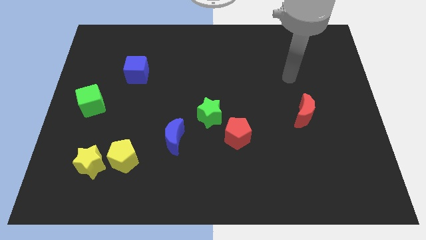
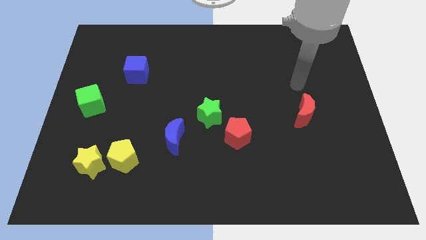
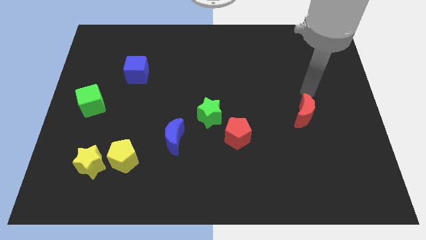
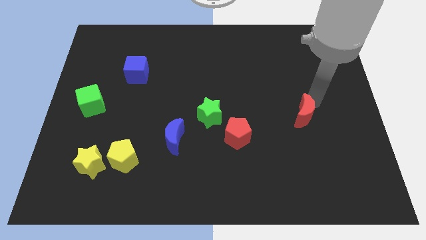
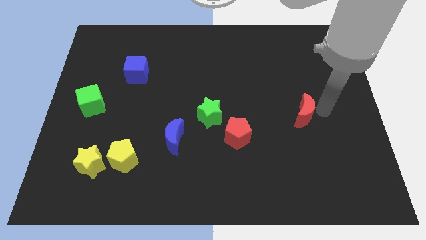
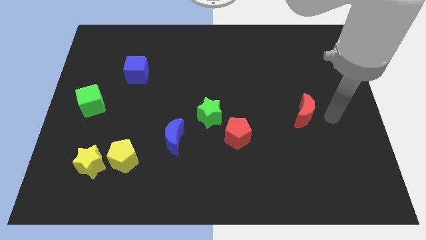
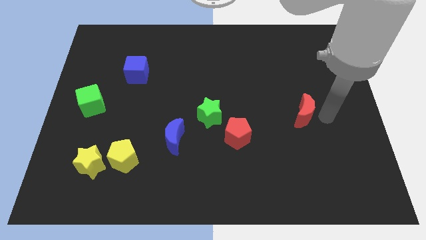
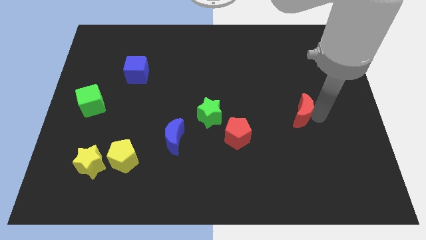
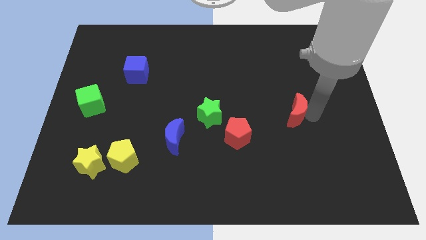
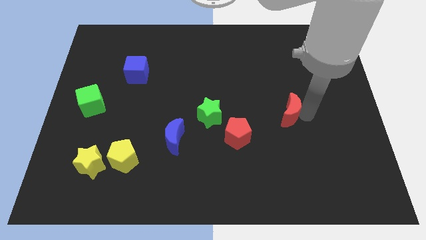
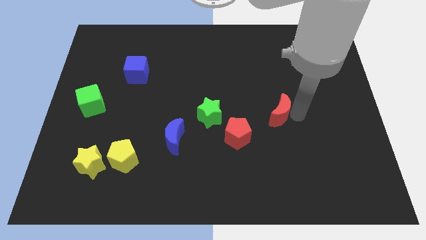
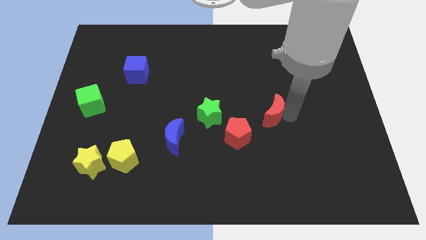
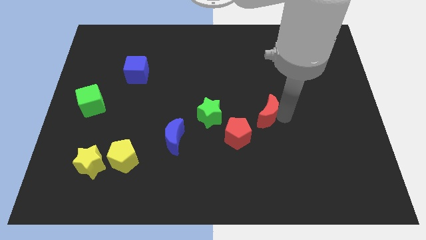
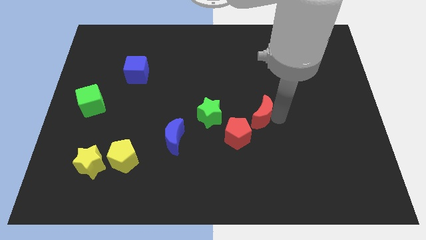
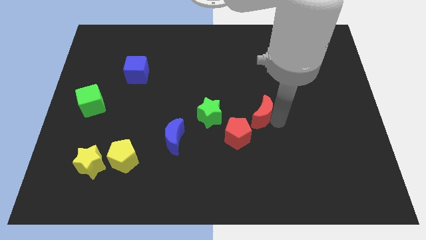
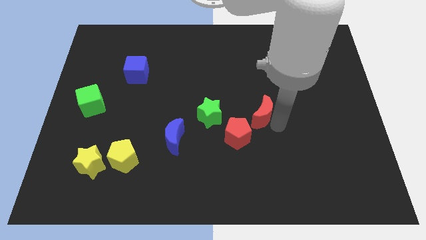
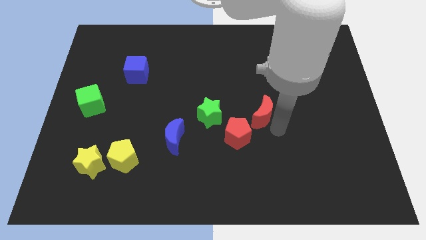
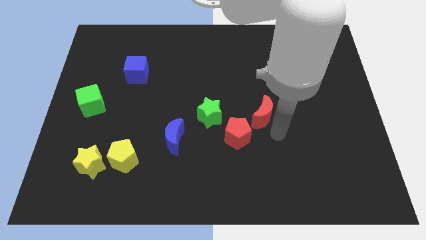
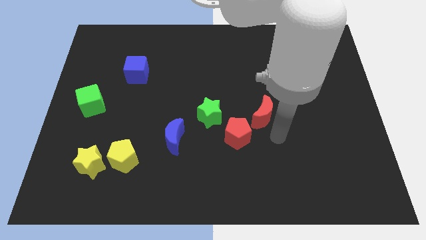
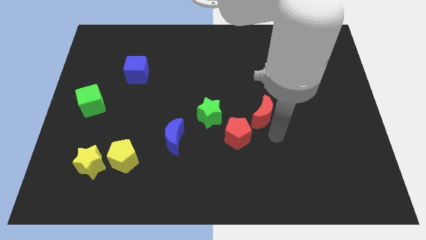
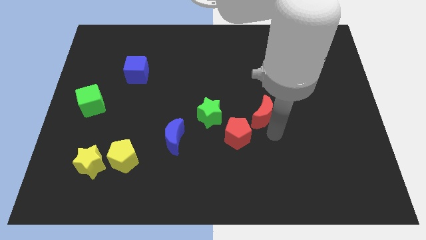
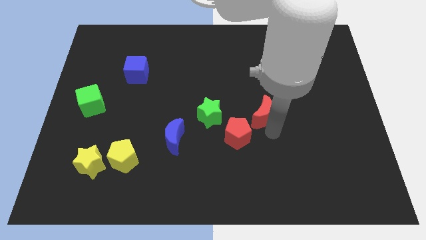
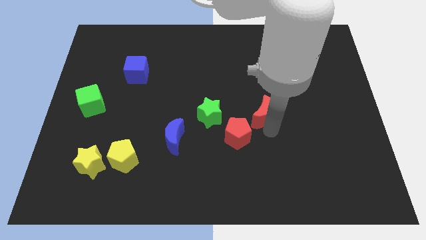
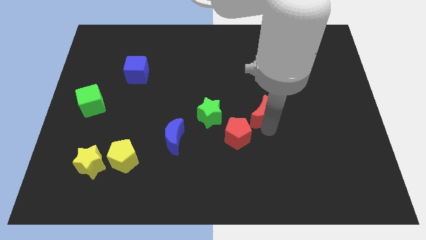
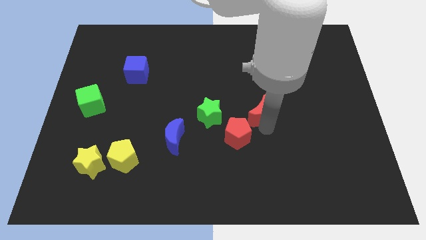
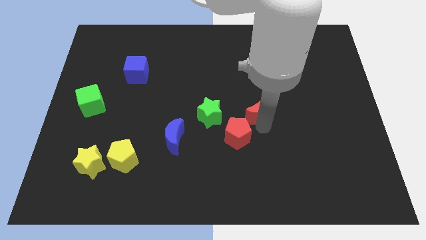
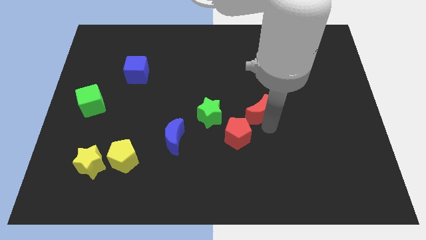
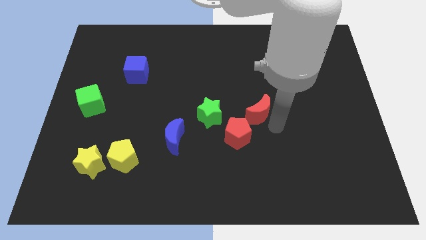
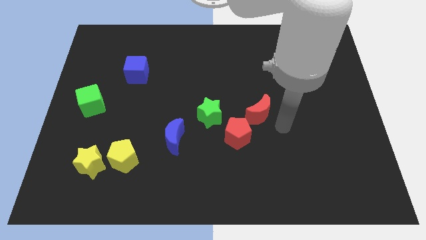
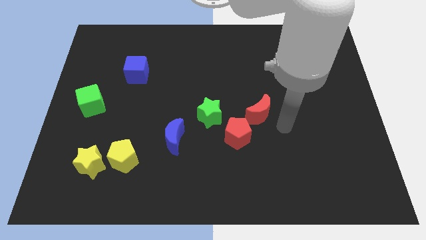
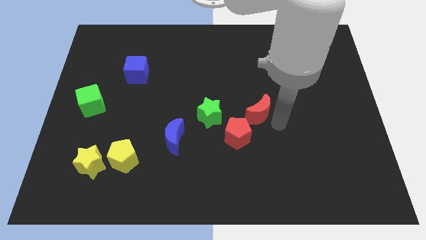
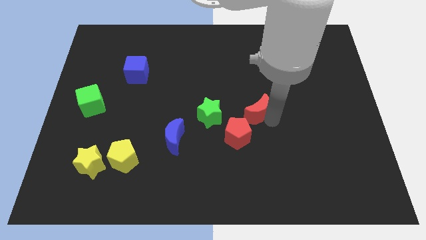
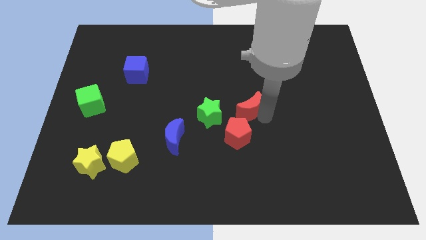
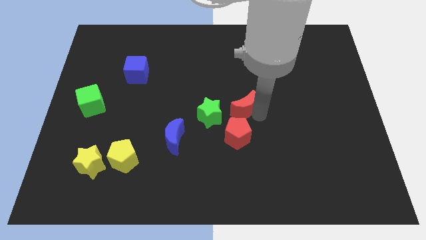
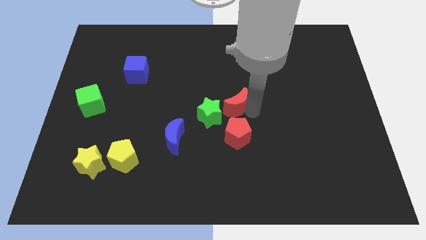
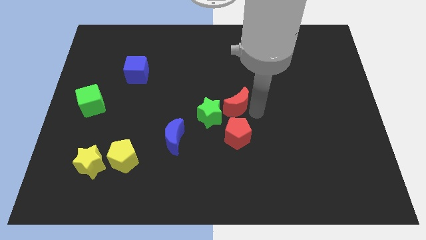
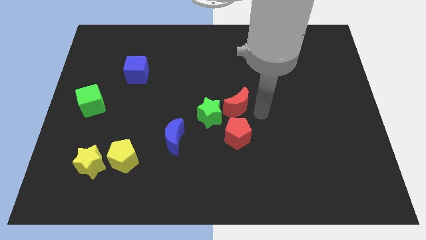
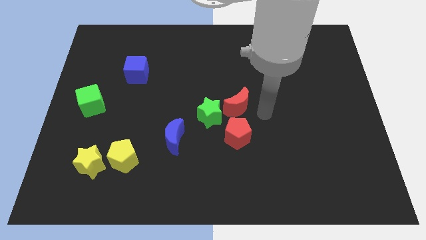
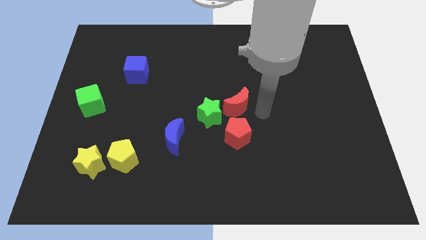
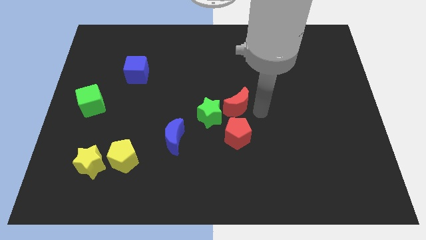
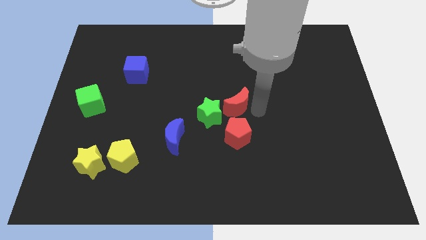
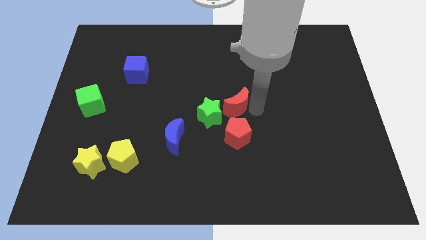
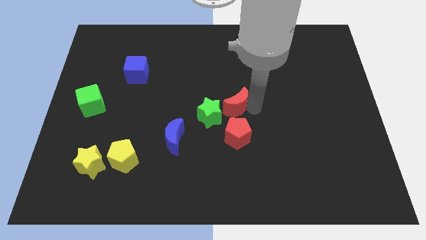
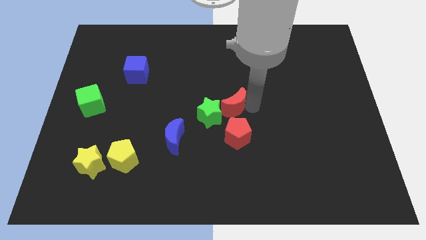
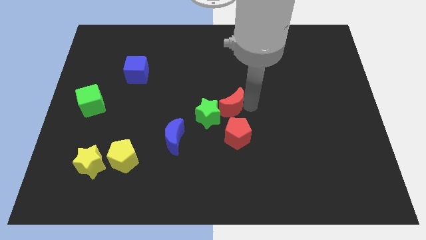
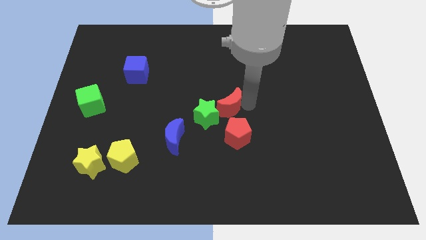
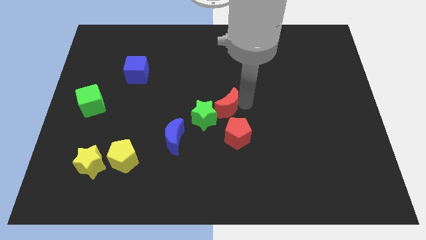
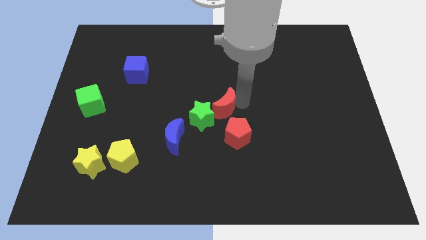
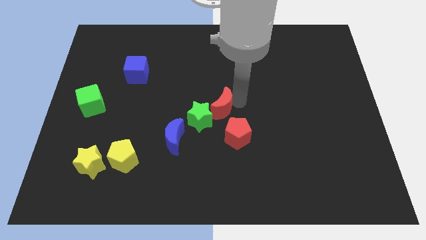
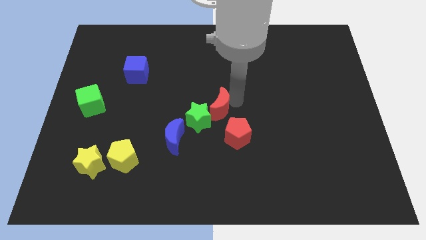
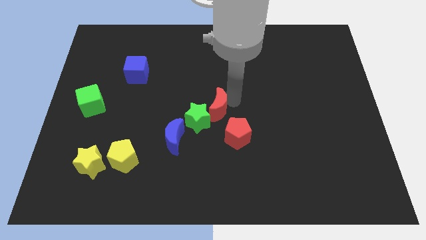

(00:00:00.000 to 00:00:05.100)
move the red moon to the left

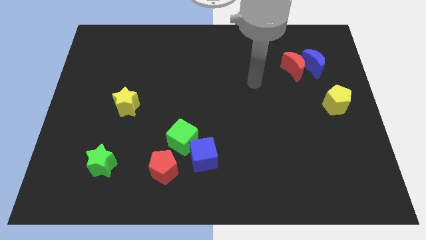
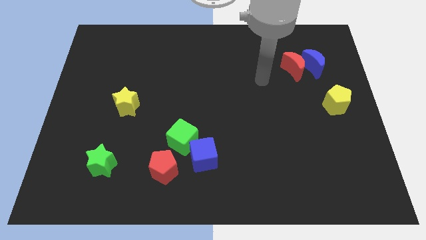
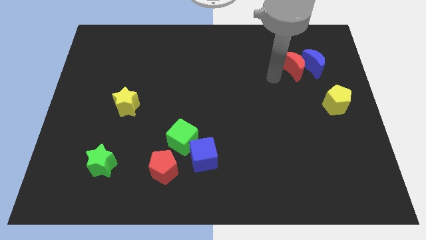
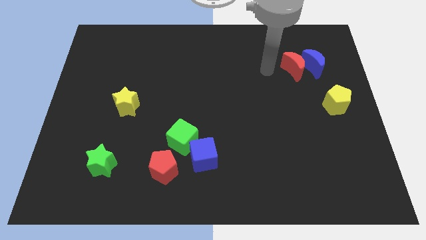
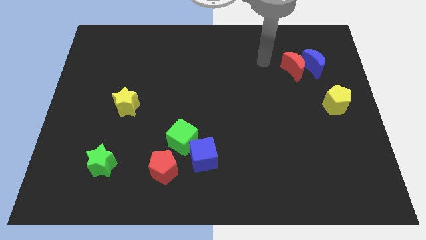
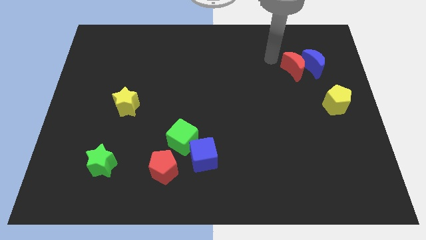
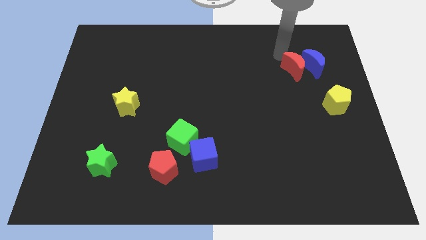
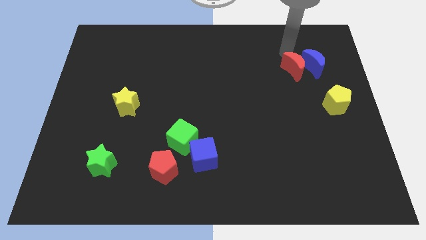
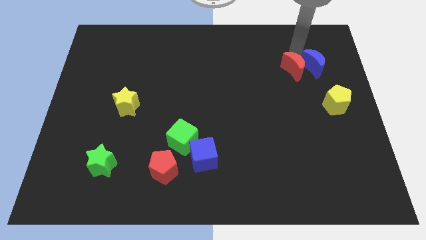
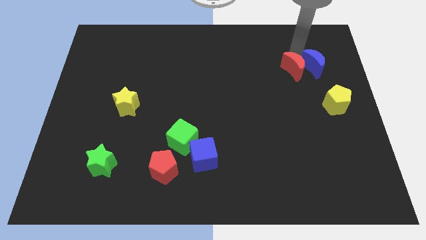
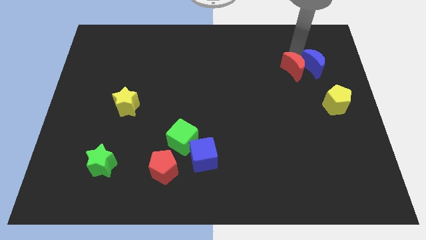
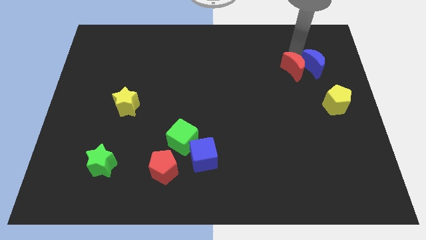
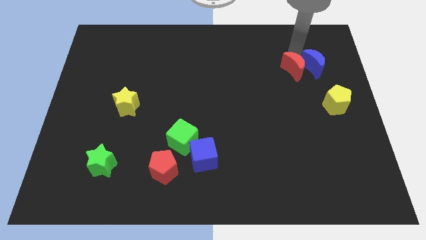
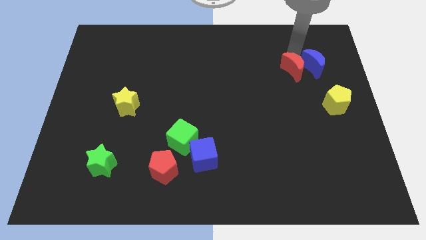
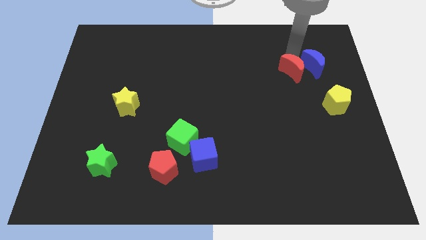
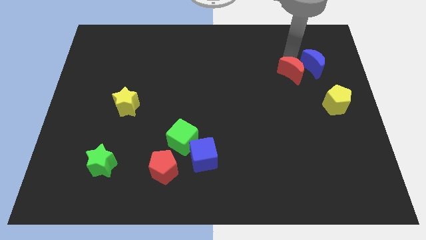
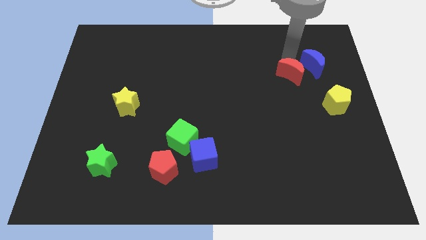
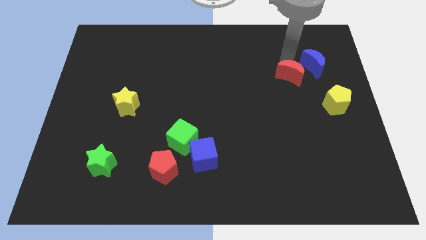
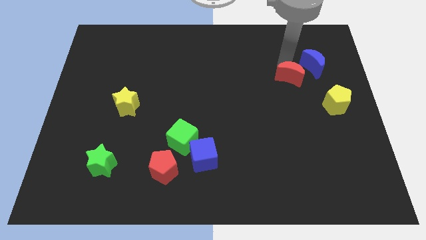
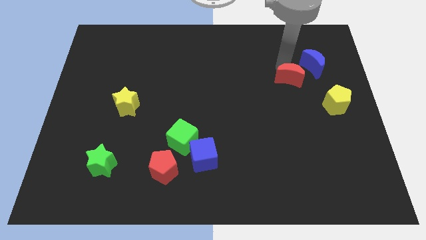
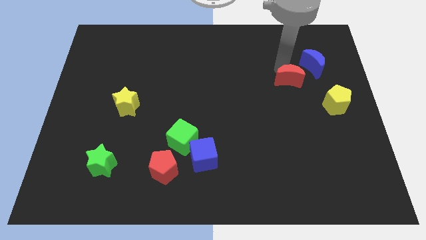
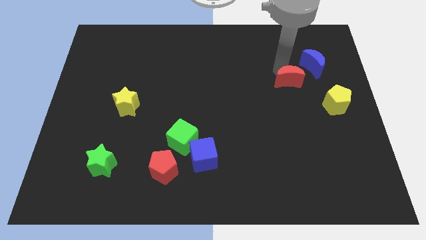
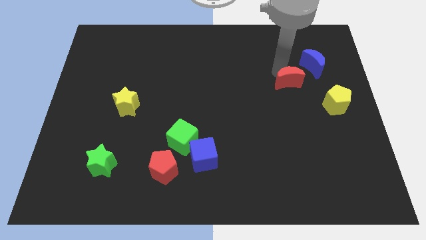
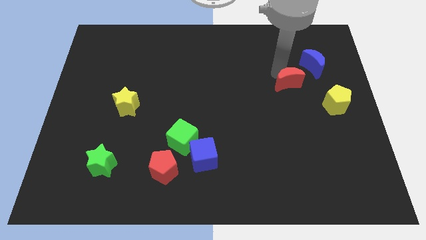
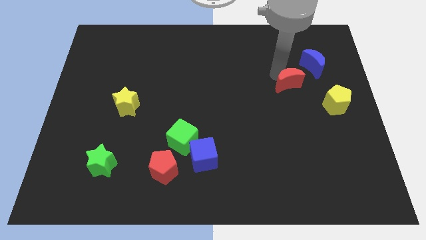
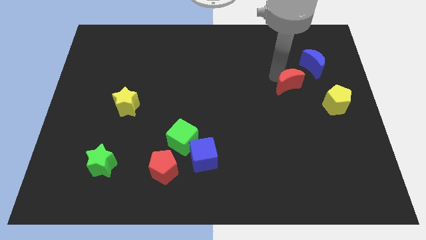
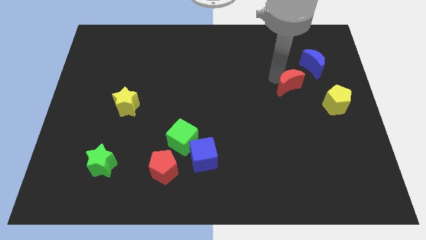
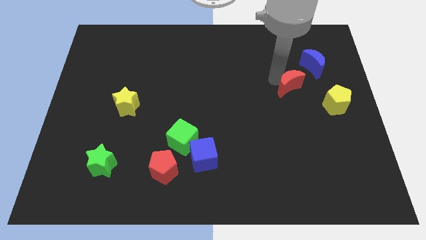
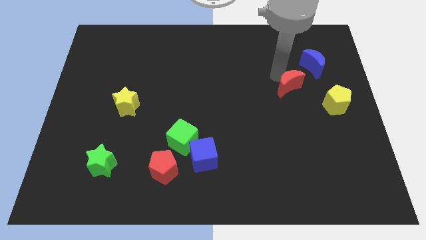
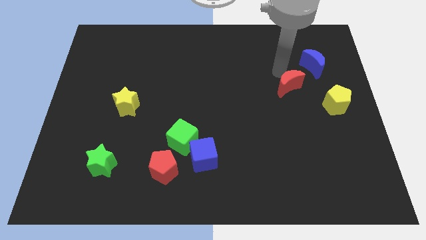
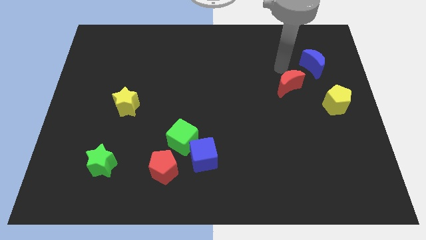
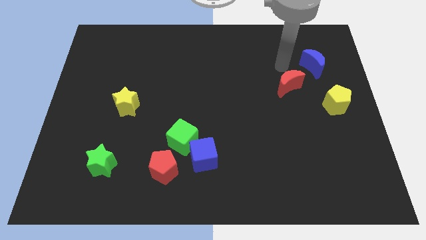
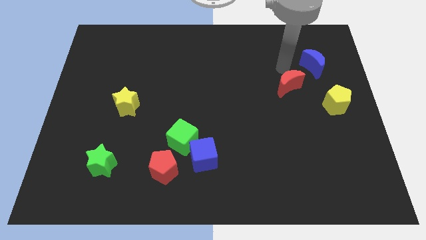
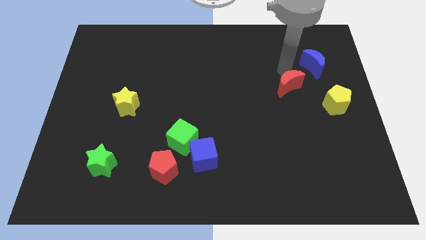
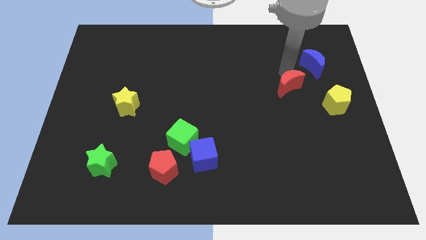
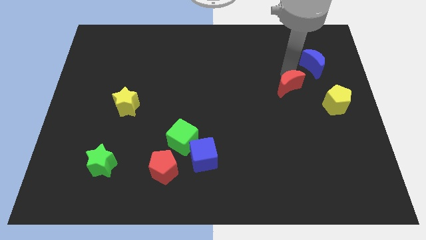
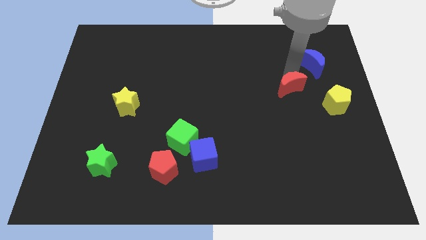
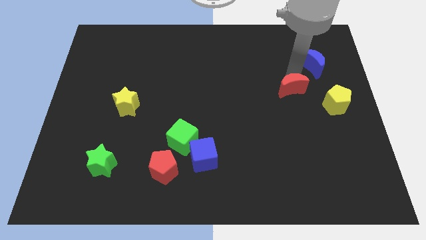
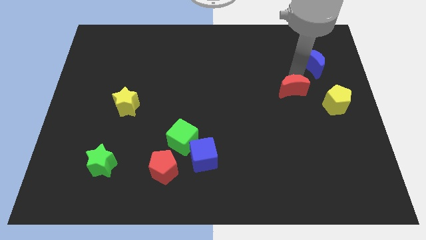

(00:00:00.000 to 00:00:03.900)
slide the red moon slightly downwards
